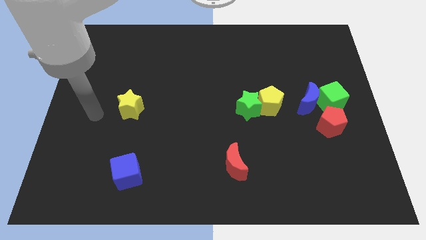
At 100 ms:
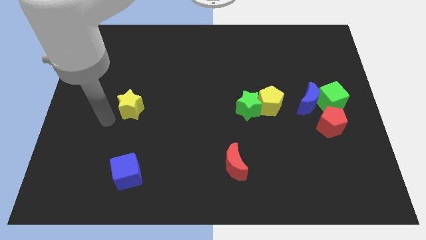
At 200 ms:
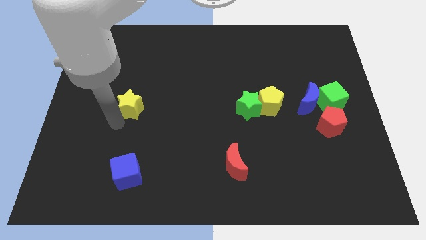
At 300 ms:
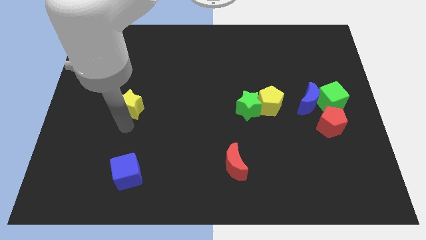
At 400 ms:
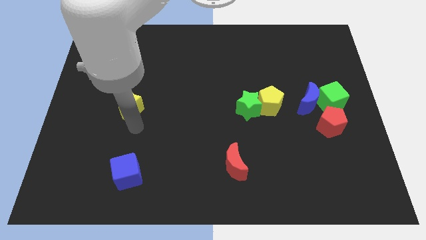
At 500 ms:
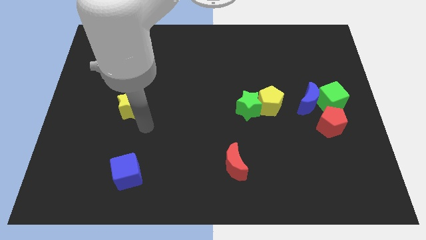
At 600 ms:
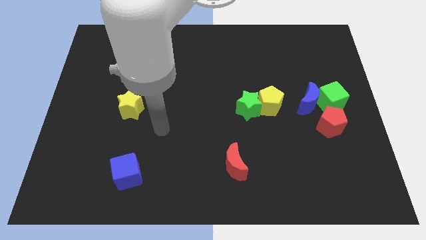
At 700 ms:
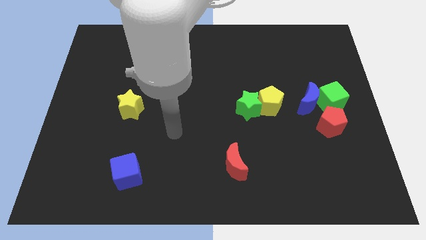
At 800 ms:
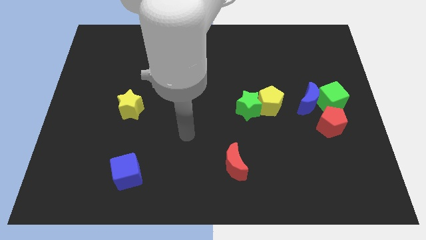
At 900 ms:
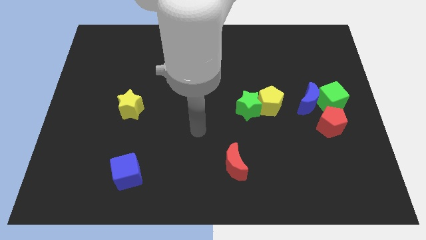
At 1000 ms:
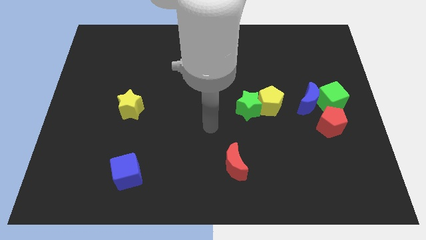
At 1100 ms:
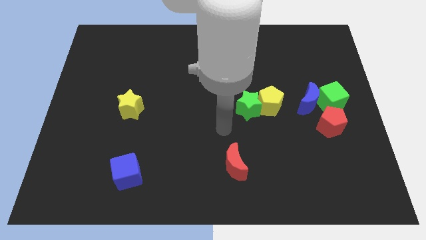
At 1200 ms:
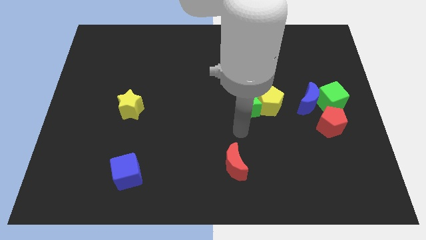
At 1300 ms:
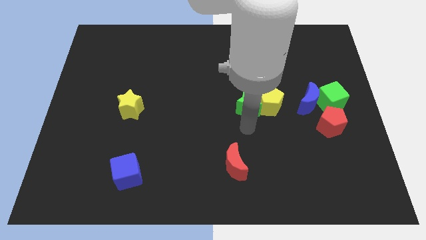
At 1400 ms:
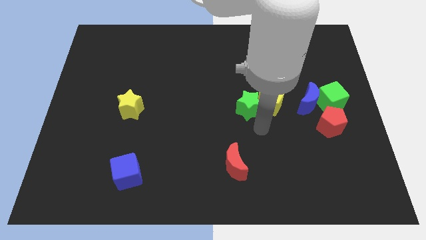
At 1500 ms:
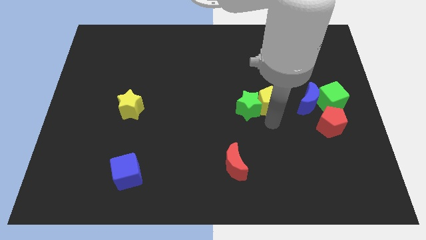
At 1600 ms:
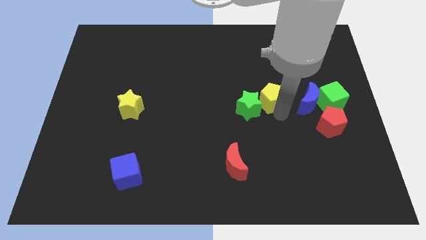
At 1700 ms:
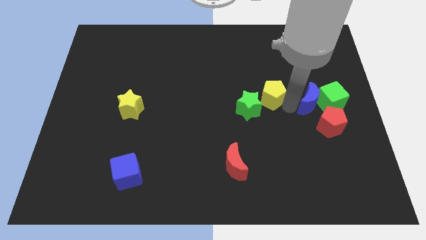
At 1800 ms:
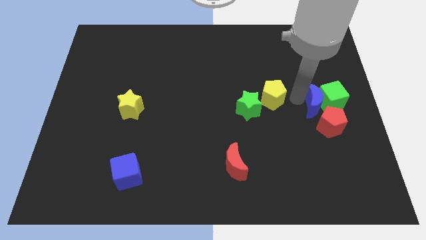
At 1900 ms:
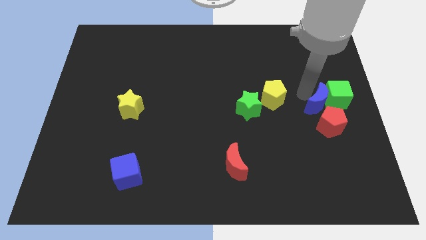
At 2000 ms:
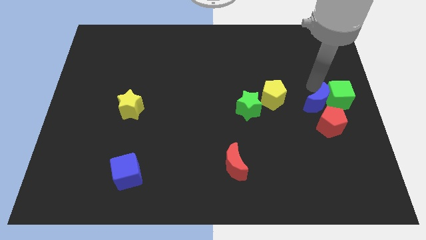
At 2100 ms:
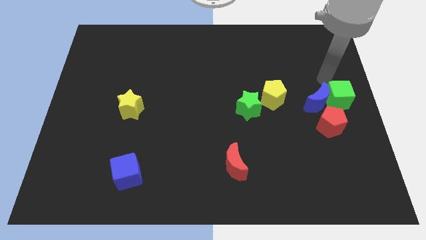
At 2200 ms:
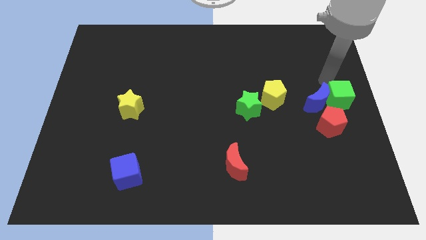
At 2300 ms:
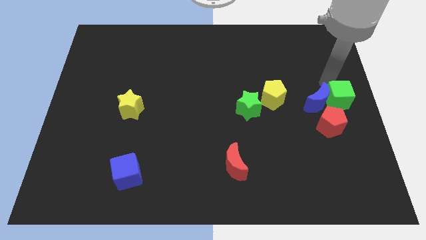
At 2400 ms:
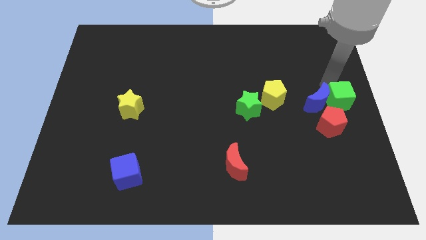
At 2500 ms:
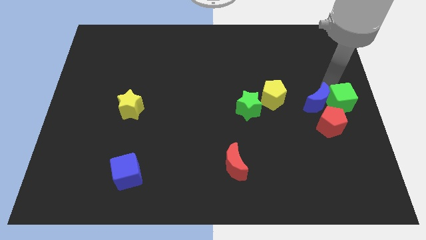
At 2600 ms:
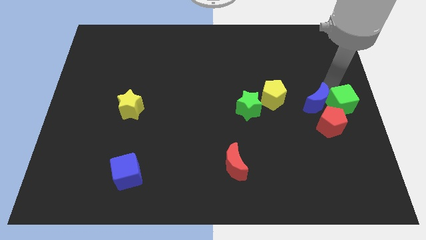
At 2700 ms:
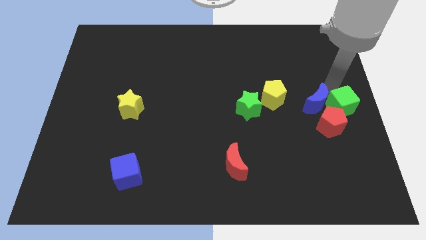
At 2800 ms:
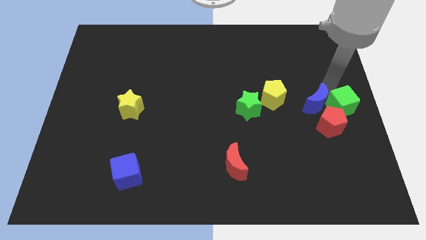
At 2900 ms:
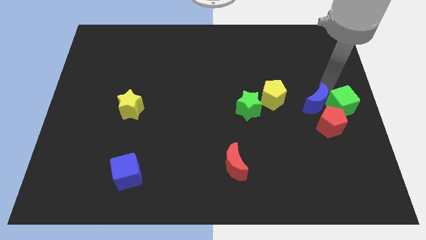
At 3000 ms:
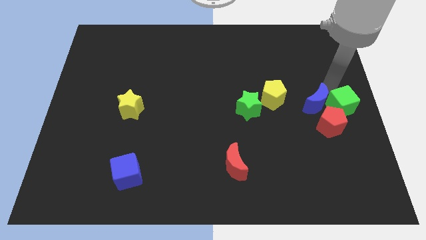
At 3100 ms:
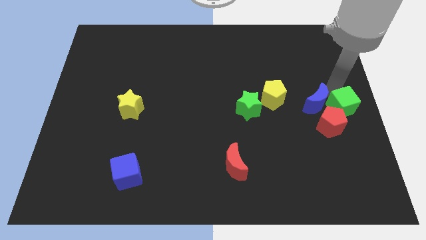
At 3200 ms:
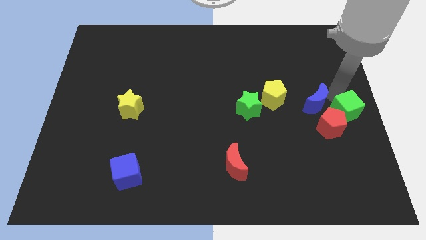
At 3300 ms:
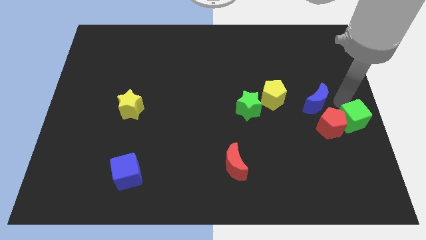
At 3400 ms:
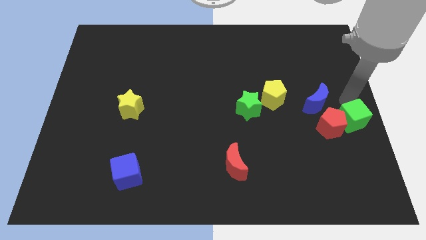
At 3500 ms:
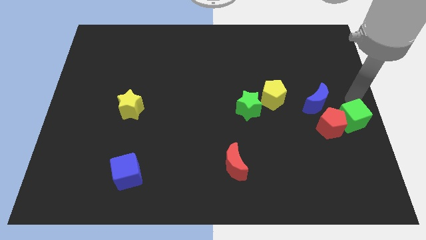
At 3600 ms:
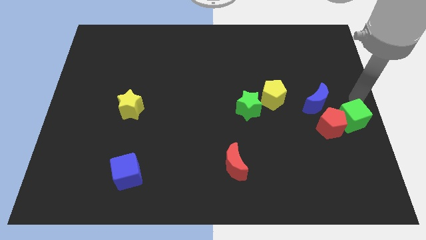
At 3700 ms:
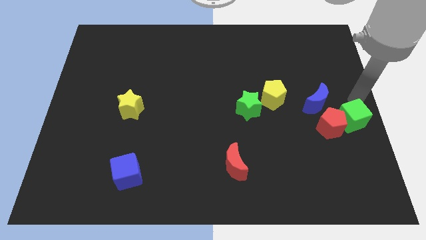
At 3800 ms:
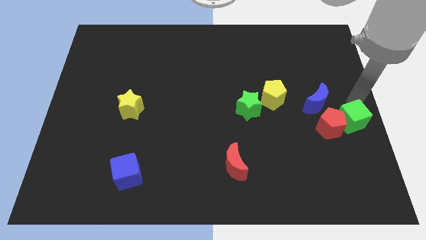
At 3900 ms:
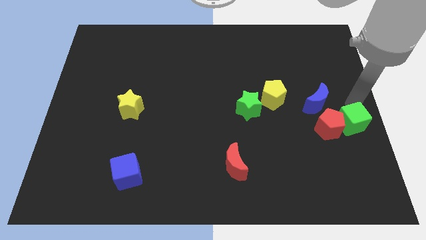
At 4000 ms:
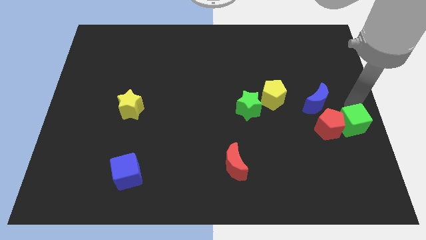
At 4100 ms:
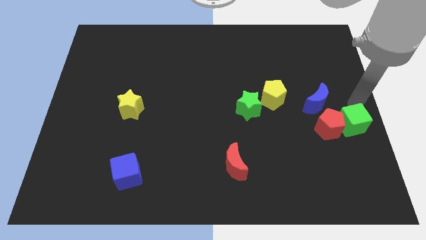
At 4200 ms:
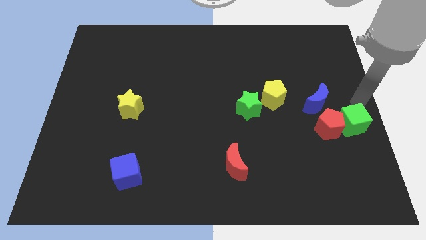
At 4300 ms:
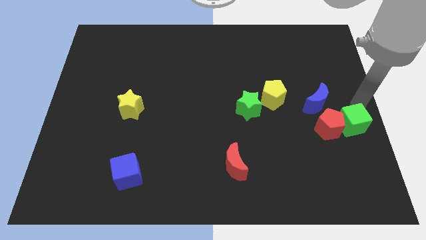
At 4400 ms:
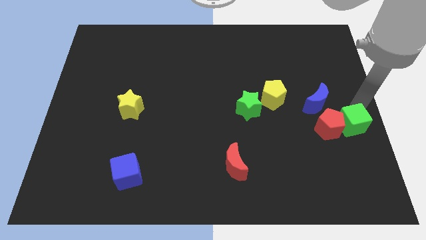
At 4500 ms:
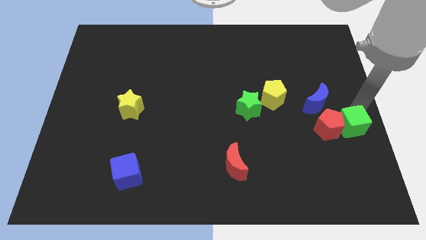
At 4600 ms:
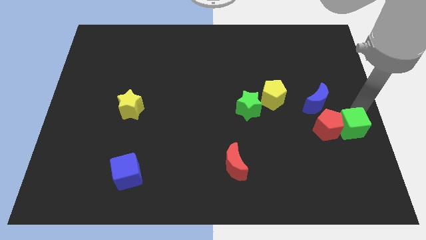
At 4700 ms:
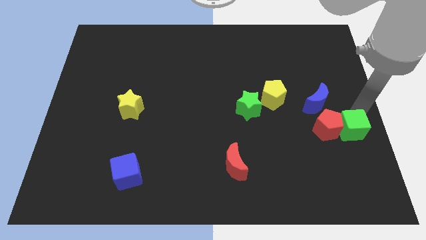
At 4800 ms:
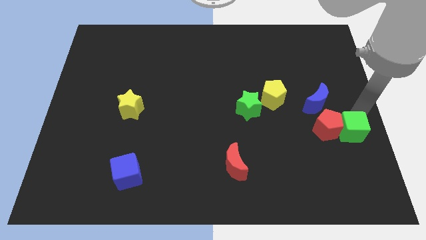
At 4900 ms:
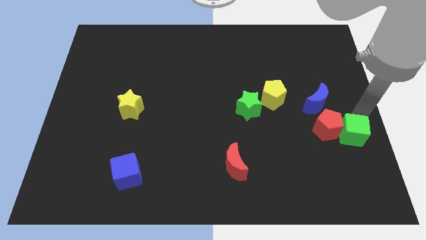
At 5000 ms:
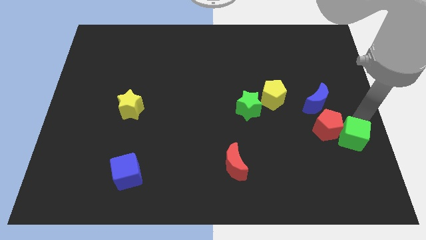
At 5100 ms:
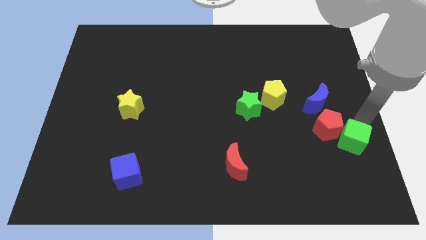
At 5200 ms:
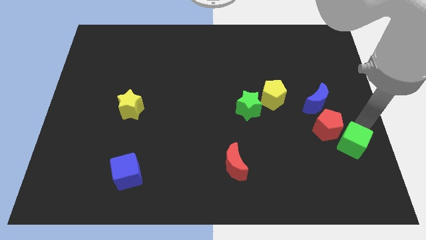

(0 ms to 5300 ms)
slide the green cube to the bottom of the red pentagon
